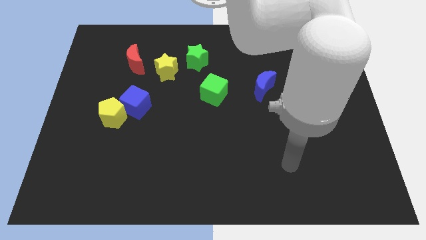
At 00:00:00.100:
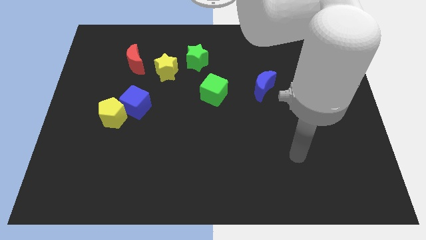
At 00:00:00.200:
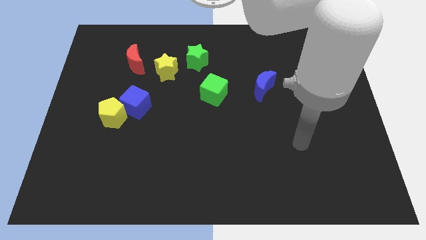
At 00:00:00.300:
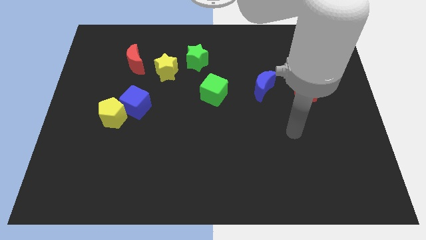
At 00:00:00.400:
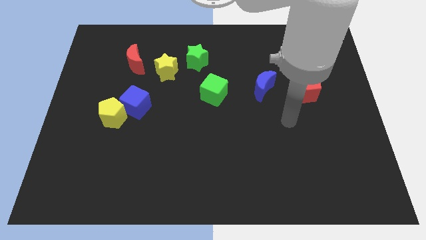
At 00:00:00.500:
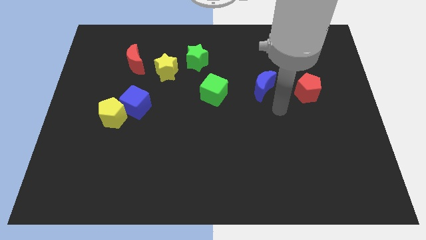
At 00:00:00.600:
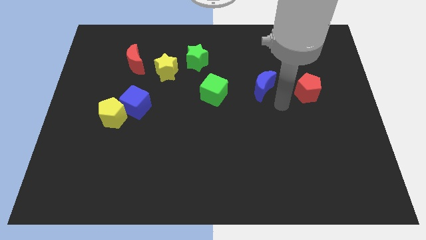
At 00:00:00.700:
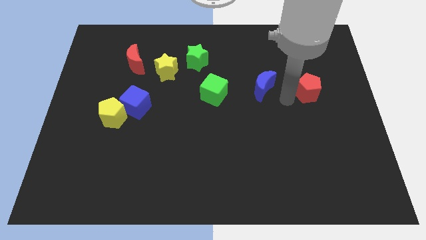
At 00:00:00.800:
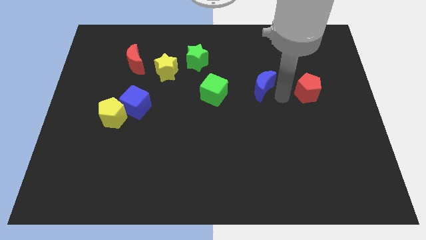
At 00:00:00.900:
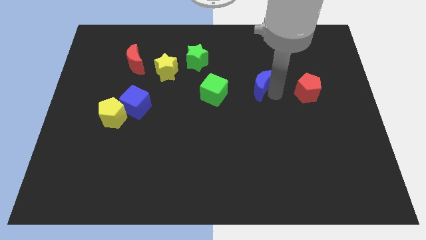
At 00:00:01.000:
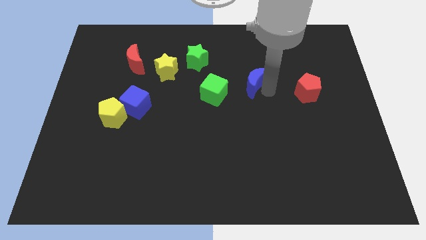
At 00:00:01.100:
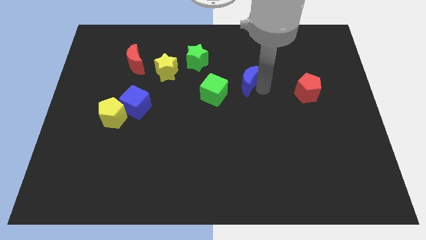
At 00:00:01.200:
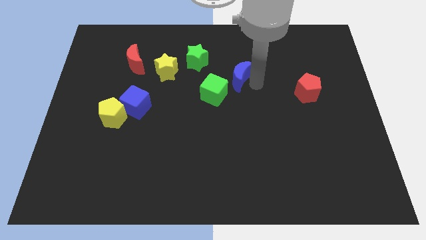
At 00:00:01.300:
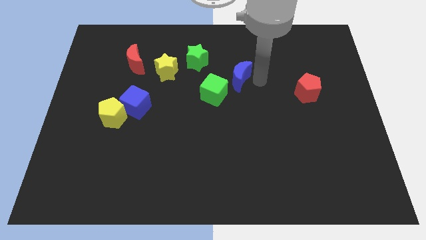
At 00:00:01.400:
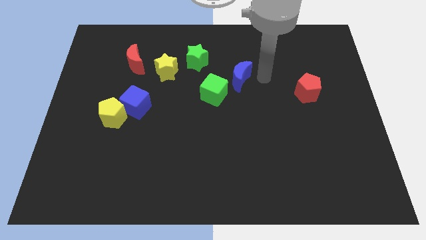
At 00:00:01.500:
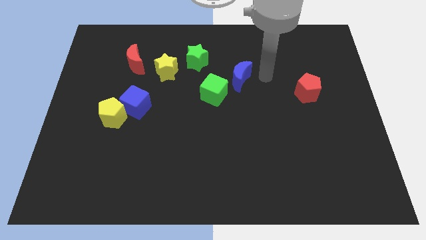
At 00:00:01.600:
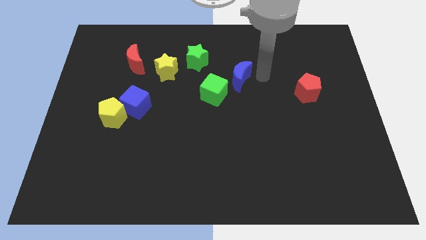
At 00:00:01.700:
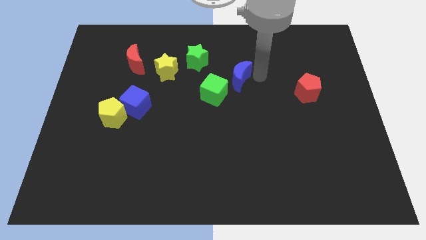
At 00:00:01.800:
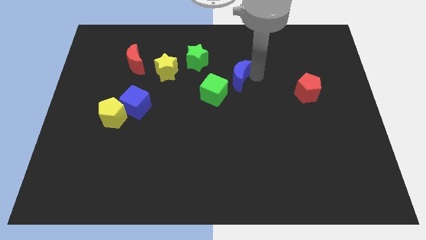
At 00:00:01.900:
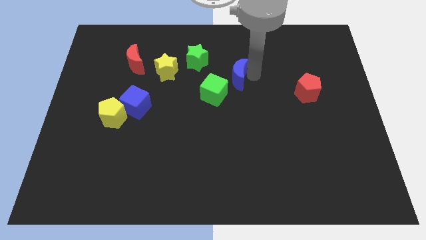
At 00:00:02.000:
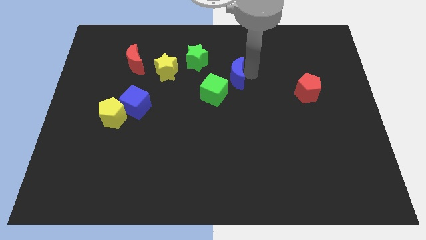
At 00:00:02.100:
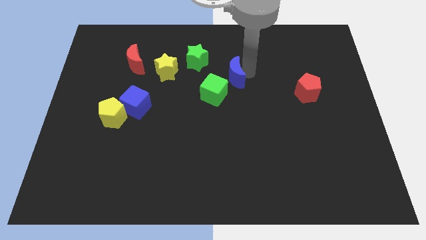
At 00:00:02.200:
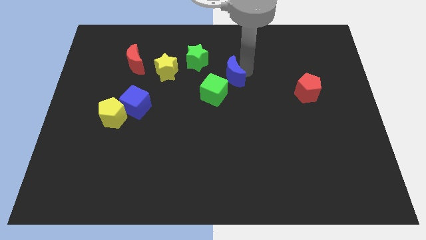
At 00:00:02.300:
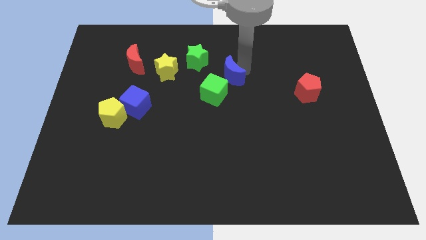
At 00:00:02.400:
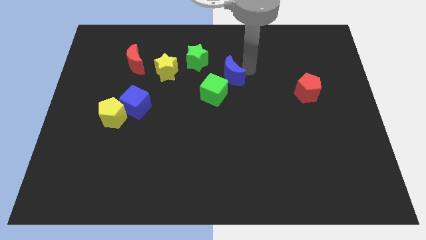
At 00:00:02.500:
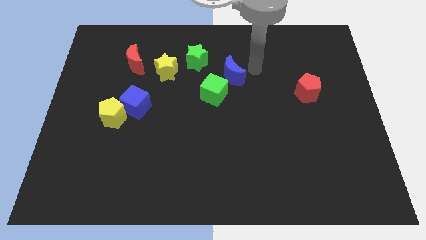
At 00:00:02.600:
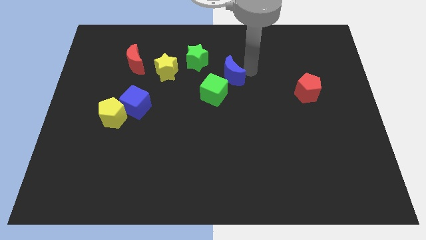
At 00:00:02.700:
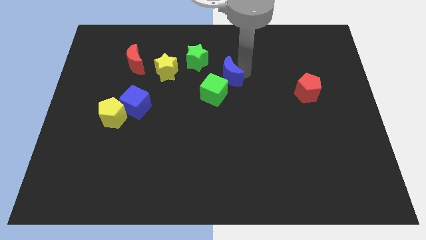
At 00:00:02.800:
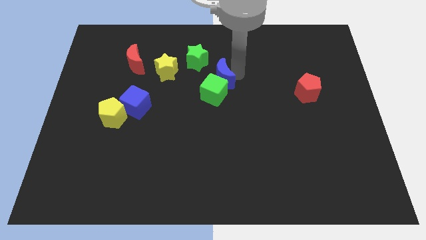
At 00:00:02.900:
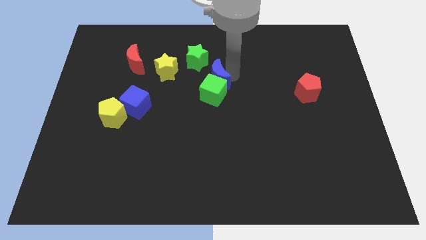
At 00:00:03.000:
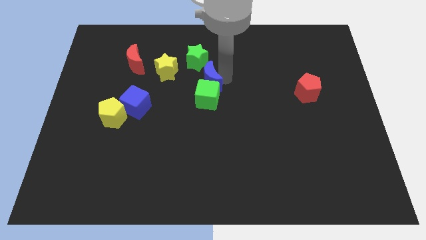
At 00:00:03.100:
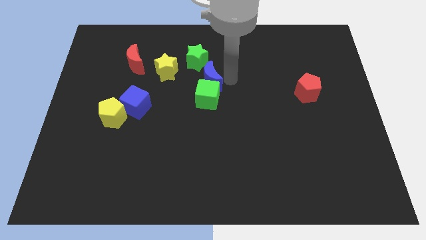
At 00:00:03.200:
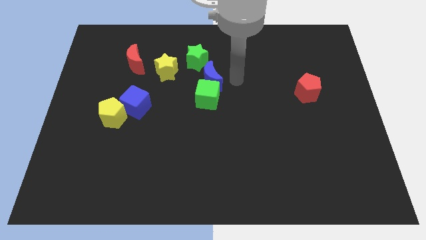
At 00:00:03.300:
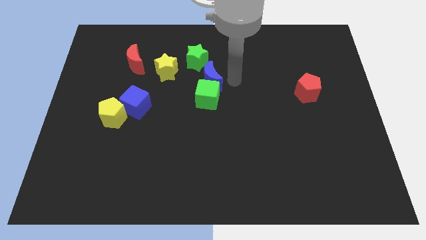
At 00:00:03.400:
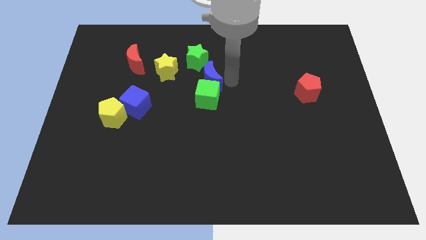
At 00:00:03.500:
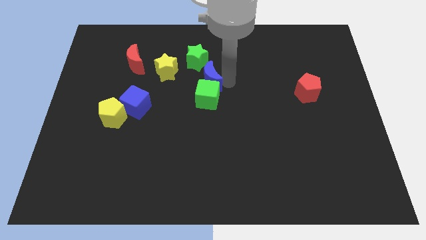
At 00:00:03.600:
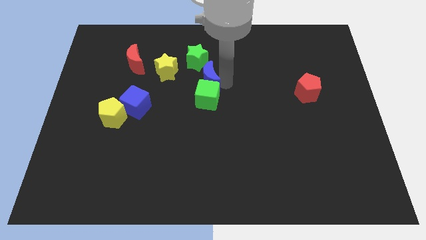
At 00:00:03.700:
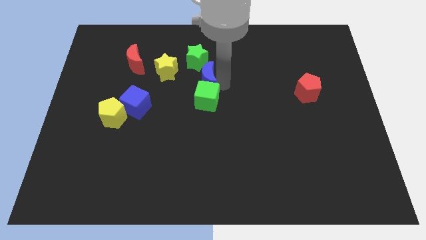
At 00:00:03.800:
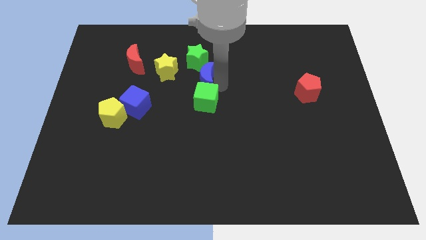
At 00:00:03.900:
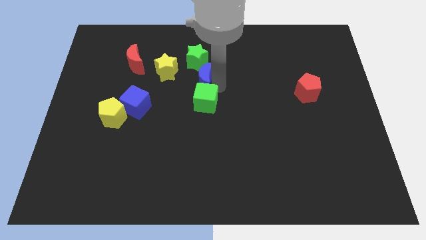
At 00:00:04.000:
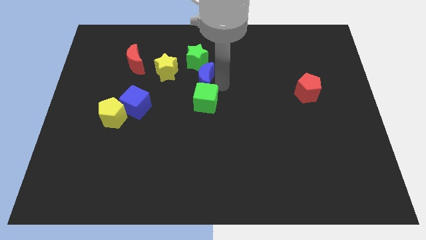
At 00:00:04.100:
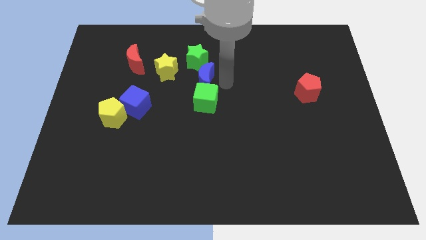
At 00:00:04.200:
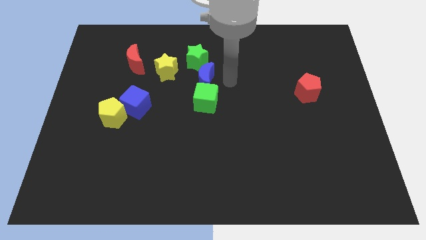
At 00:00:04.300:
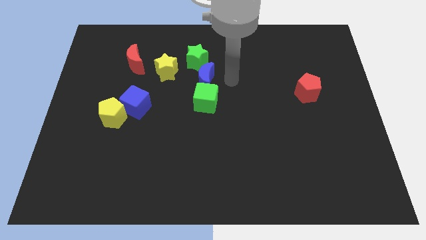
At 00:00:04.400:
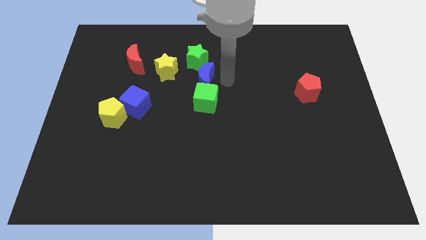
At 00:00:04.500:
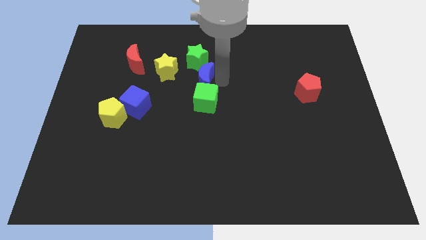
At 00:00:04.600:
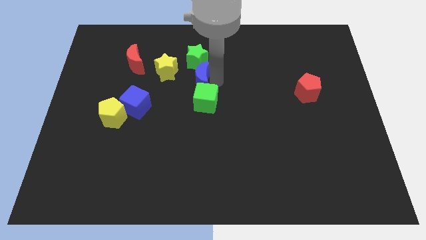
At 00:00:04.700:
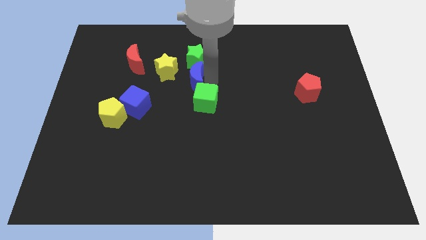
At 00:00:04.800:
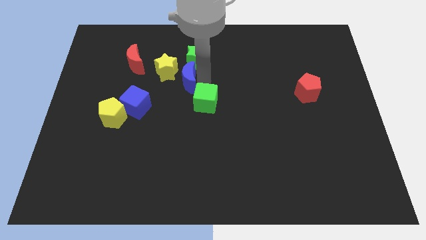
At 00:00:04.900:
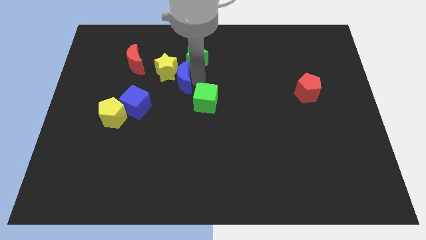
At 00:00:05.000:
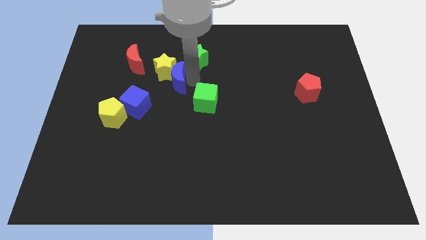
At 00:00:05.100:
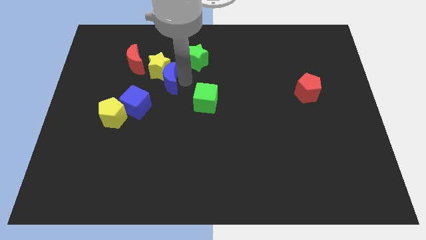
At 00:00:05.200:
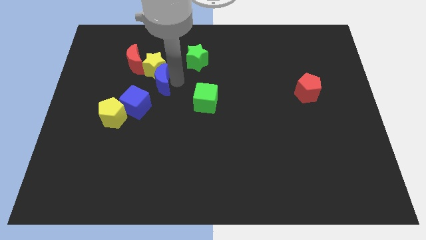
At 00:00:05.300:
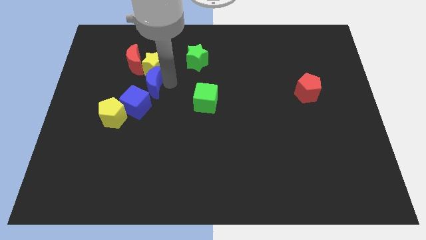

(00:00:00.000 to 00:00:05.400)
put the blue moon to the bottom left of the yellow star
